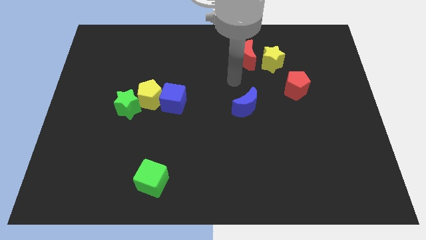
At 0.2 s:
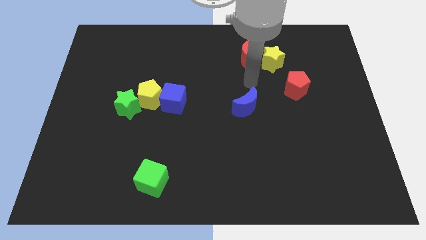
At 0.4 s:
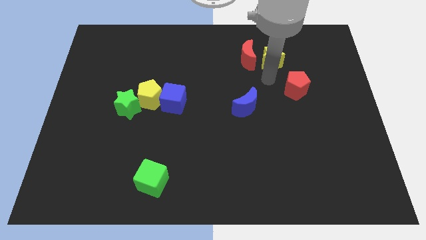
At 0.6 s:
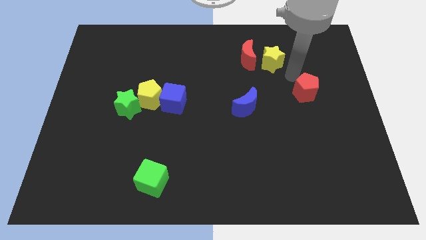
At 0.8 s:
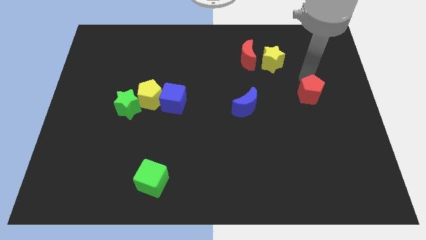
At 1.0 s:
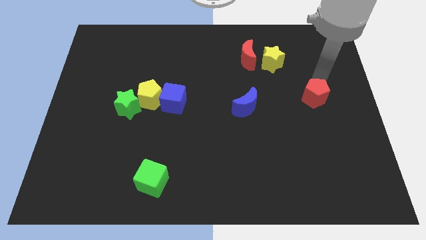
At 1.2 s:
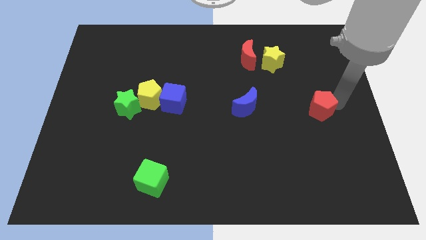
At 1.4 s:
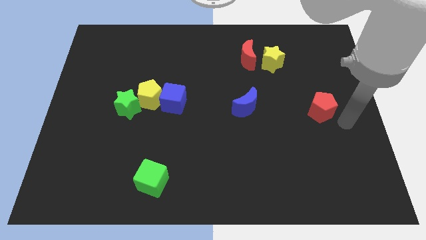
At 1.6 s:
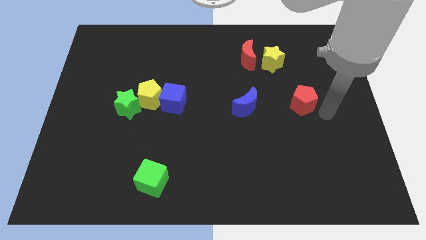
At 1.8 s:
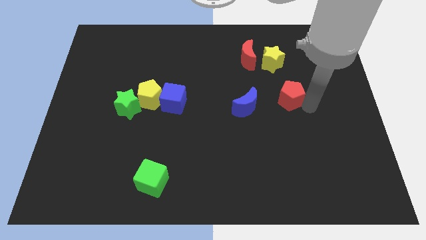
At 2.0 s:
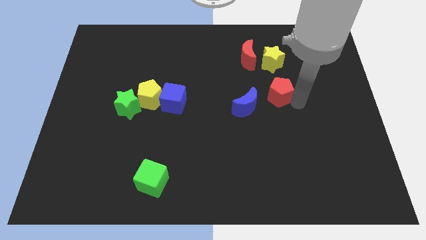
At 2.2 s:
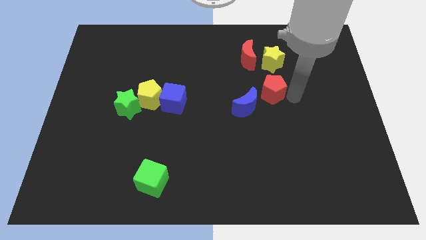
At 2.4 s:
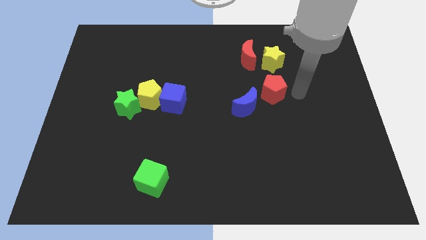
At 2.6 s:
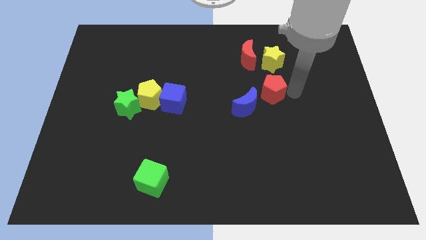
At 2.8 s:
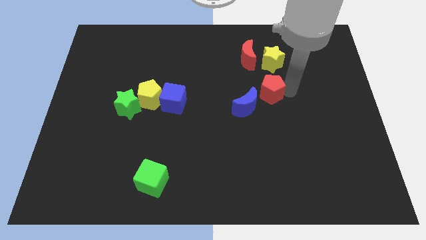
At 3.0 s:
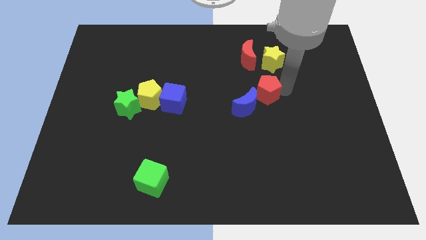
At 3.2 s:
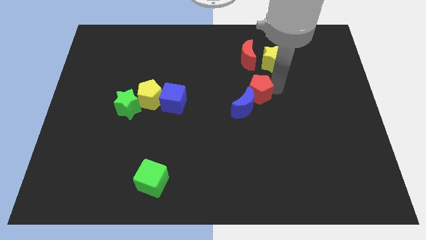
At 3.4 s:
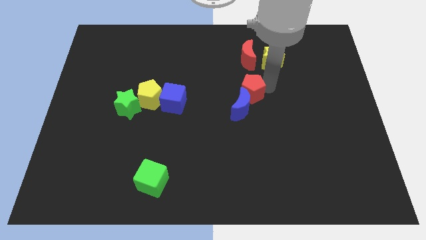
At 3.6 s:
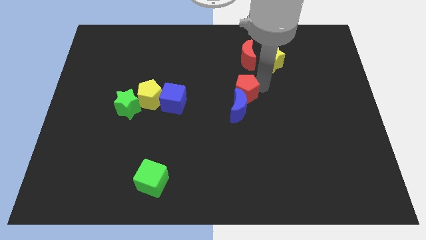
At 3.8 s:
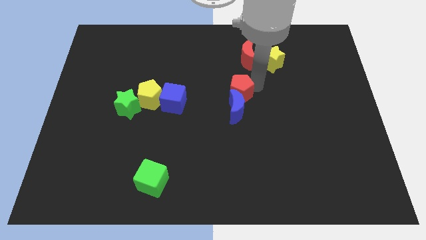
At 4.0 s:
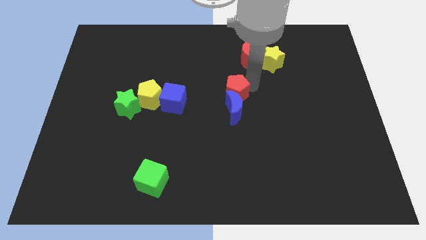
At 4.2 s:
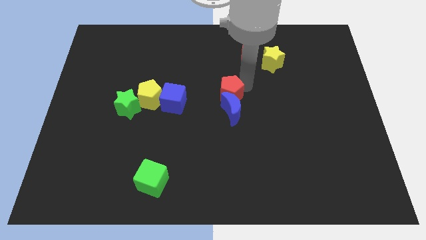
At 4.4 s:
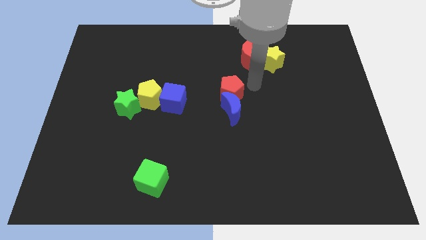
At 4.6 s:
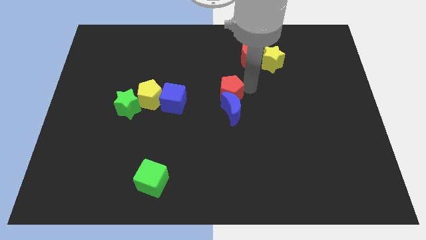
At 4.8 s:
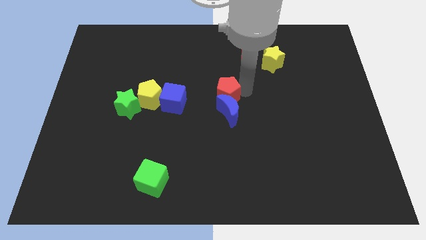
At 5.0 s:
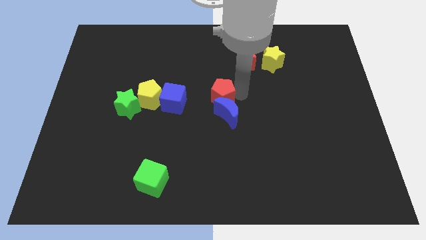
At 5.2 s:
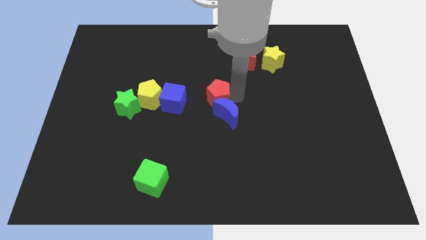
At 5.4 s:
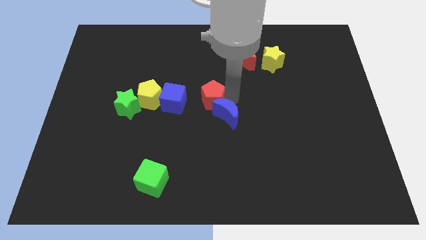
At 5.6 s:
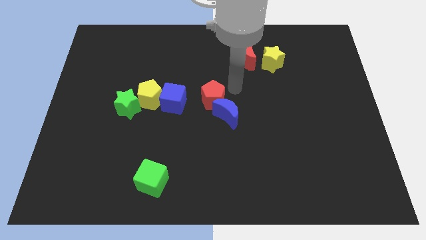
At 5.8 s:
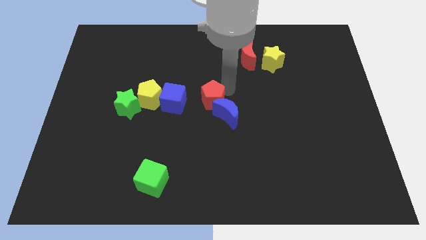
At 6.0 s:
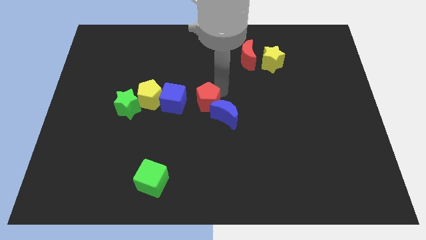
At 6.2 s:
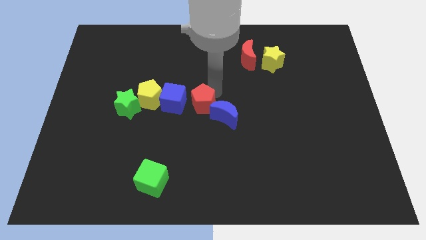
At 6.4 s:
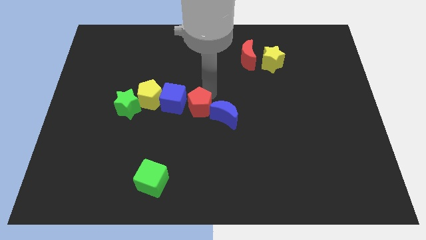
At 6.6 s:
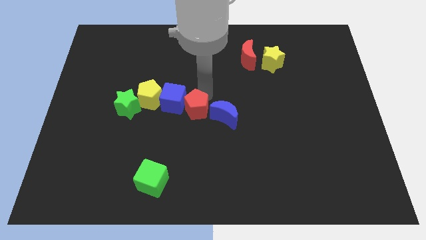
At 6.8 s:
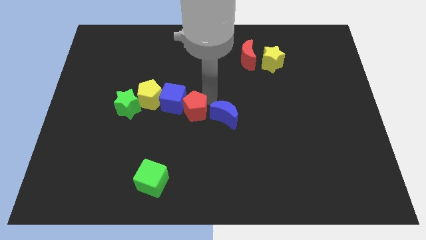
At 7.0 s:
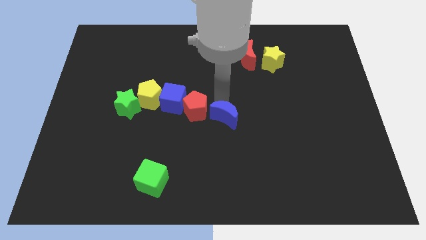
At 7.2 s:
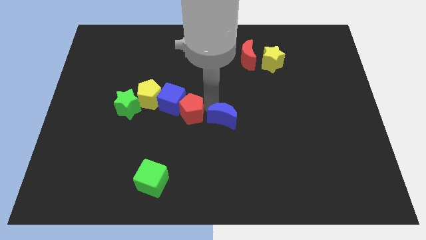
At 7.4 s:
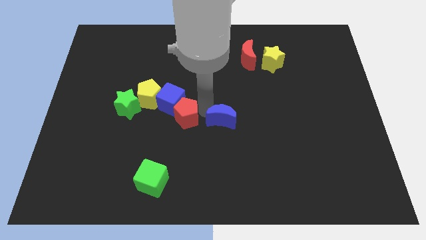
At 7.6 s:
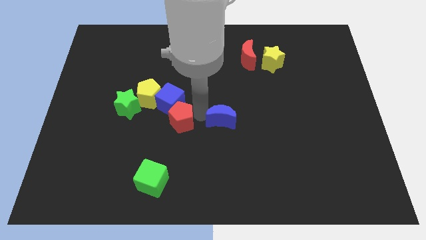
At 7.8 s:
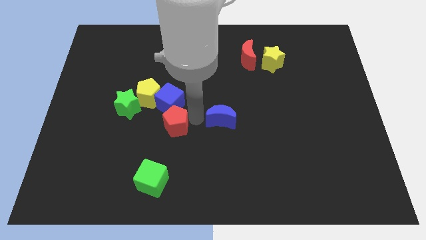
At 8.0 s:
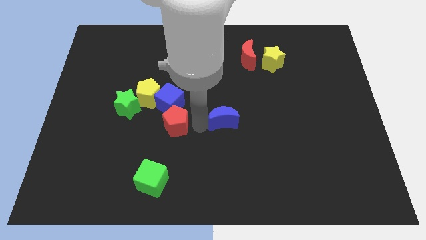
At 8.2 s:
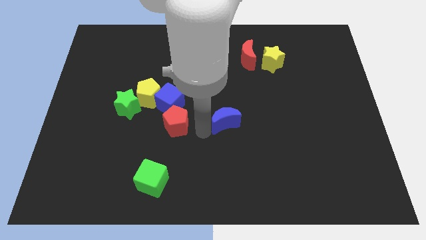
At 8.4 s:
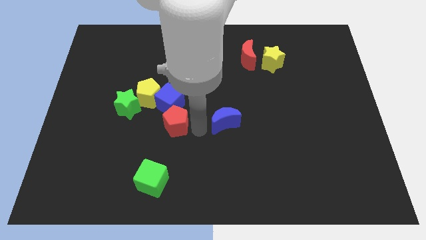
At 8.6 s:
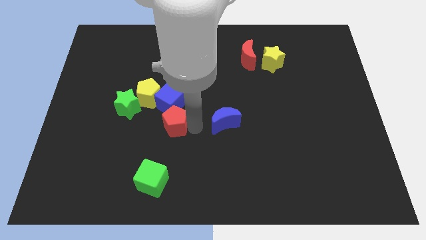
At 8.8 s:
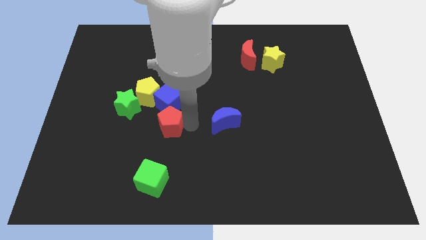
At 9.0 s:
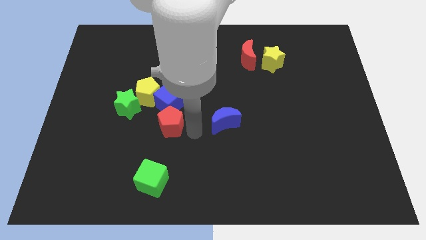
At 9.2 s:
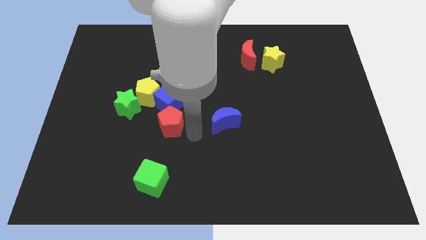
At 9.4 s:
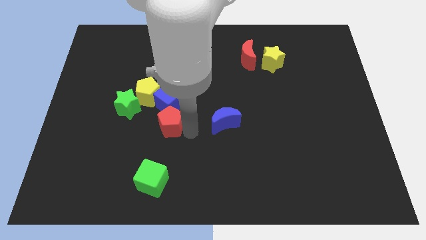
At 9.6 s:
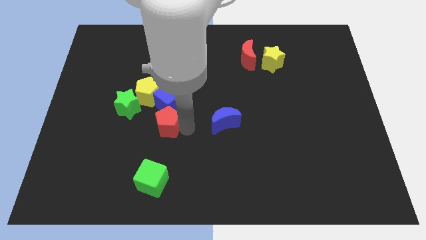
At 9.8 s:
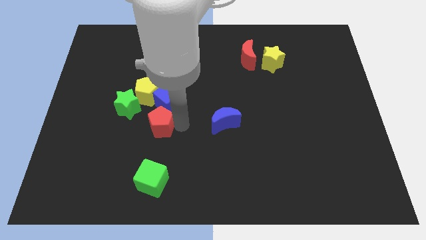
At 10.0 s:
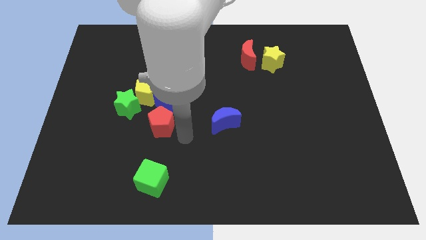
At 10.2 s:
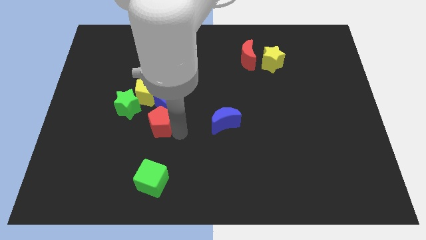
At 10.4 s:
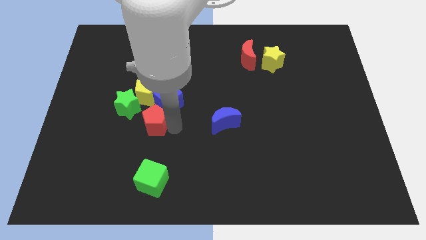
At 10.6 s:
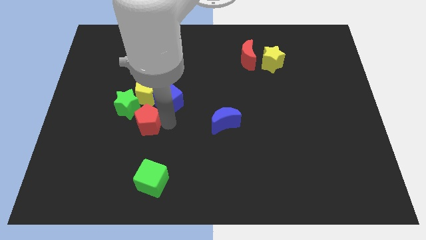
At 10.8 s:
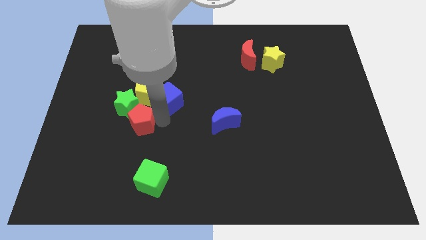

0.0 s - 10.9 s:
push the red pentagon towards the green star

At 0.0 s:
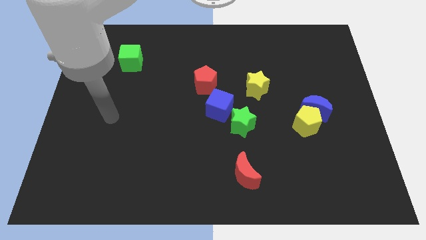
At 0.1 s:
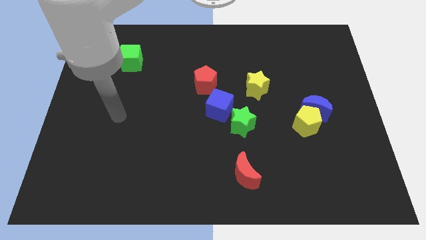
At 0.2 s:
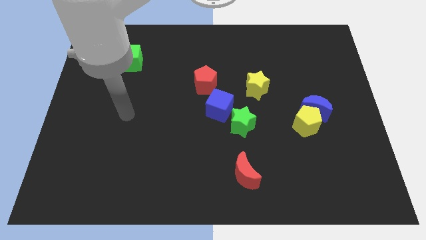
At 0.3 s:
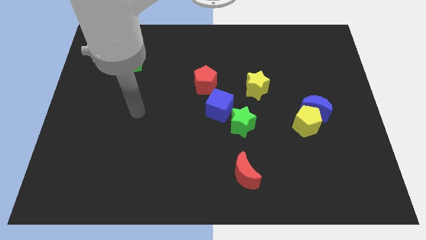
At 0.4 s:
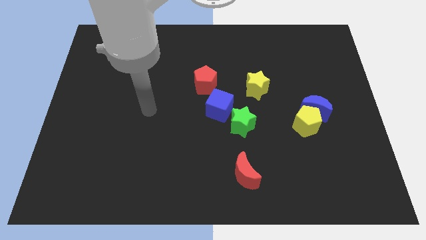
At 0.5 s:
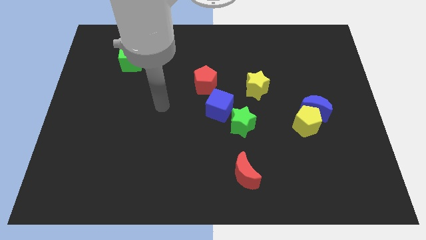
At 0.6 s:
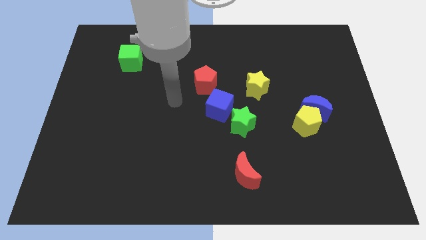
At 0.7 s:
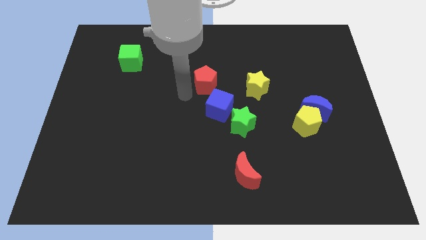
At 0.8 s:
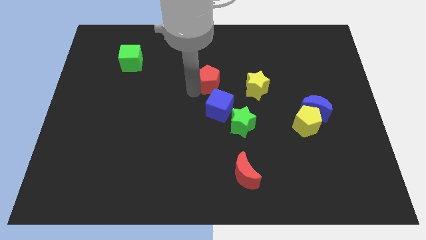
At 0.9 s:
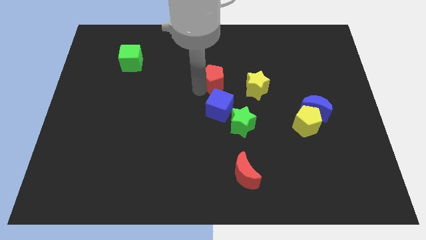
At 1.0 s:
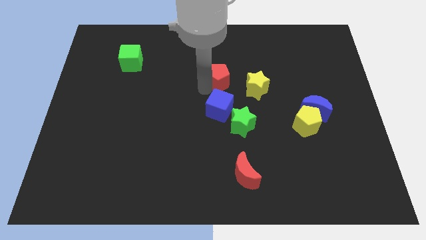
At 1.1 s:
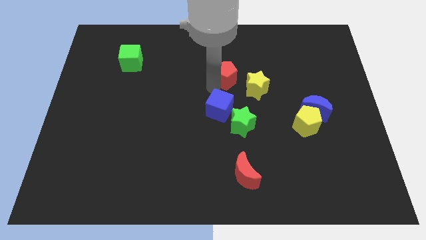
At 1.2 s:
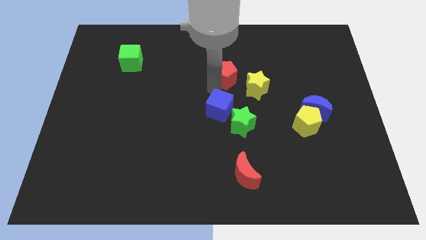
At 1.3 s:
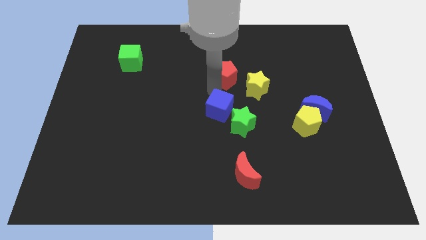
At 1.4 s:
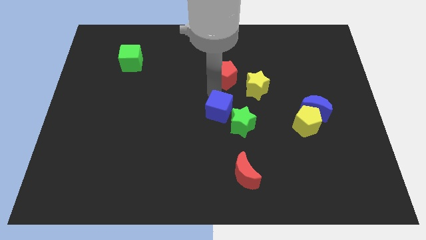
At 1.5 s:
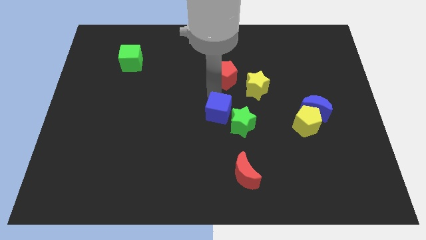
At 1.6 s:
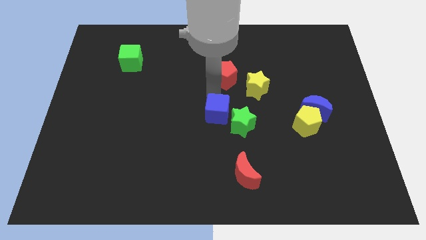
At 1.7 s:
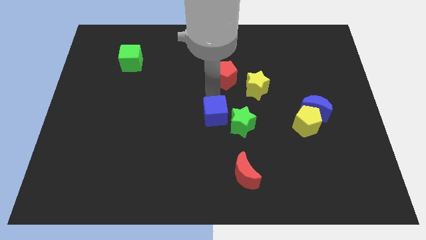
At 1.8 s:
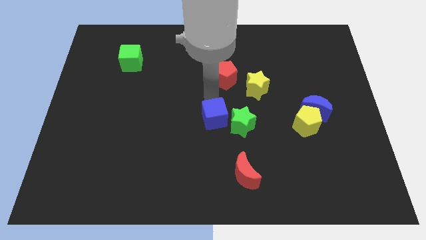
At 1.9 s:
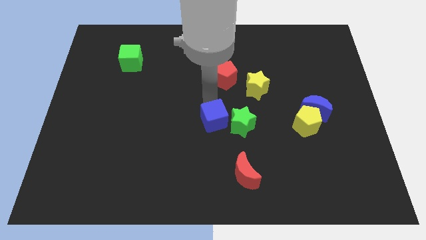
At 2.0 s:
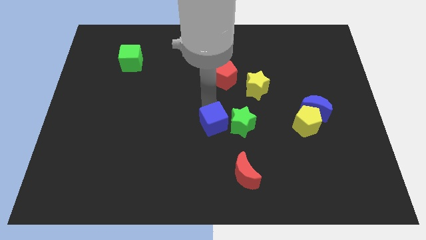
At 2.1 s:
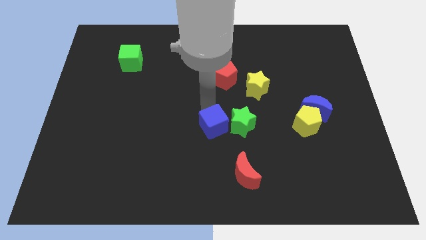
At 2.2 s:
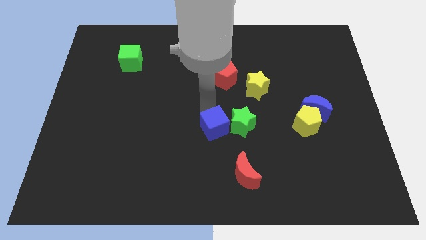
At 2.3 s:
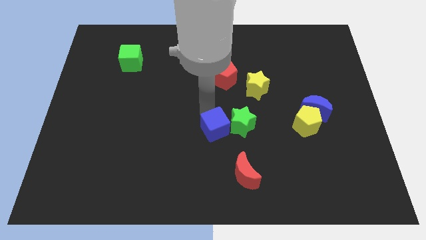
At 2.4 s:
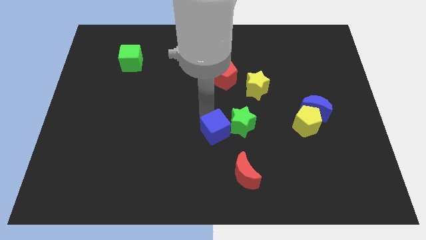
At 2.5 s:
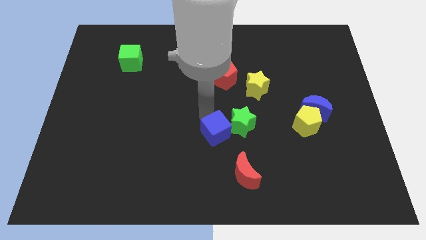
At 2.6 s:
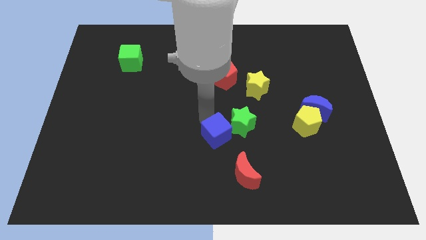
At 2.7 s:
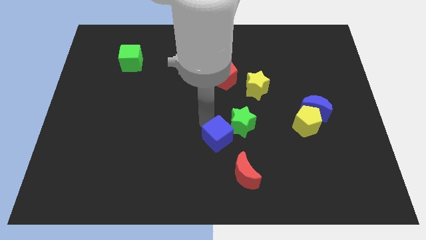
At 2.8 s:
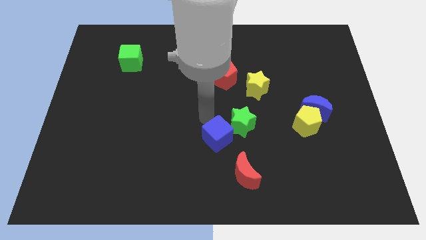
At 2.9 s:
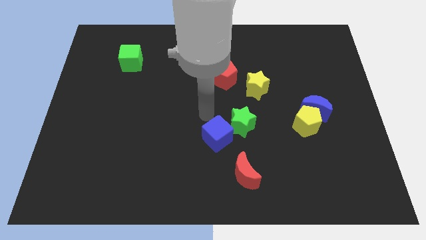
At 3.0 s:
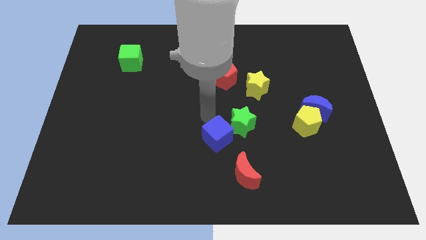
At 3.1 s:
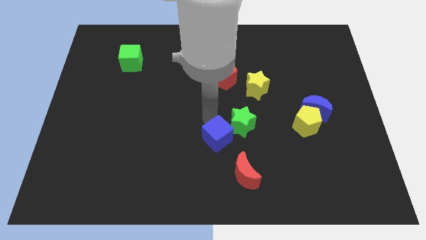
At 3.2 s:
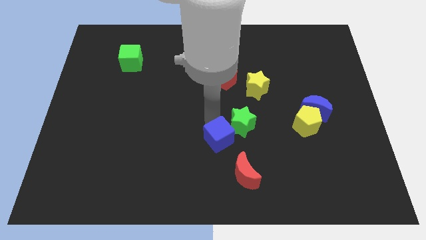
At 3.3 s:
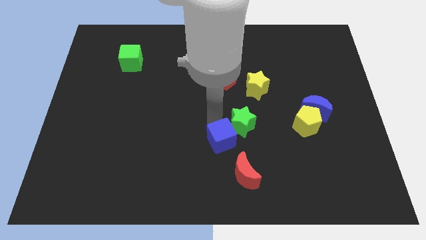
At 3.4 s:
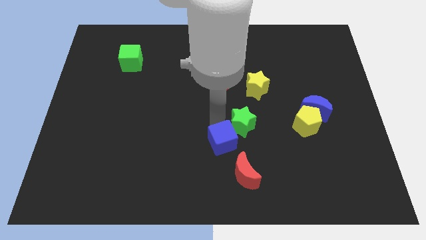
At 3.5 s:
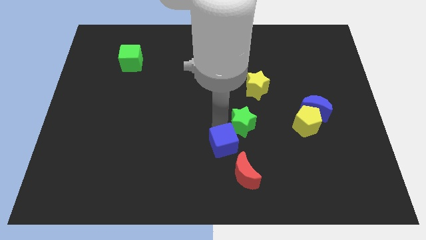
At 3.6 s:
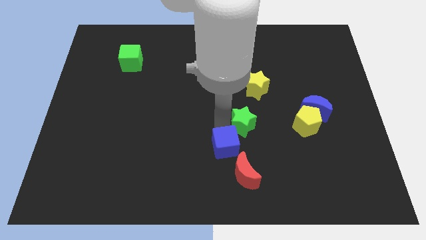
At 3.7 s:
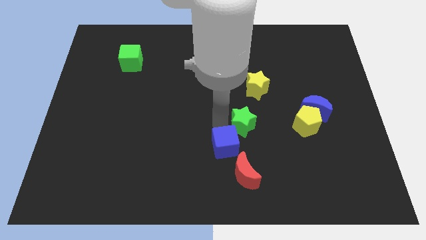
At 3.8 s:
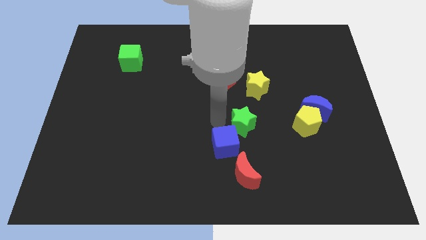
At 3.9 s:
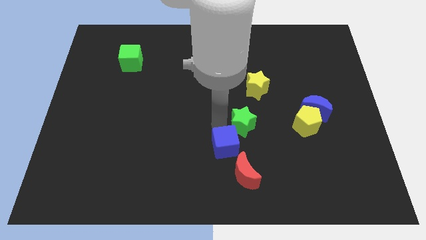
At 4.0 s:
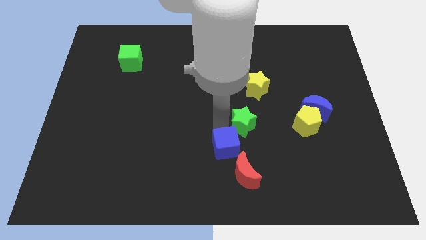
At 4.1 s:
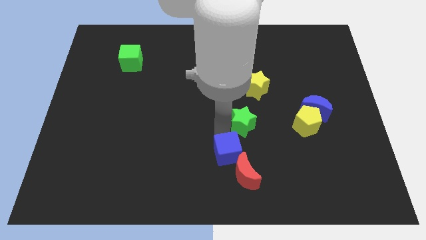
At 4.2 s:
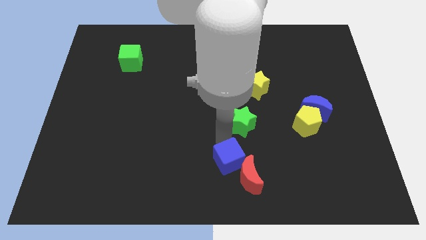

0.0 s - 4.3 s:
move the blue cube close to the red moon
